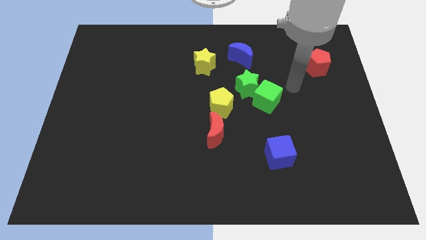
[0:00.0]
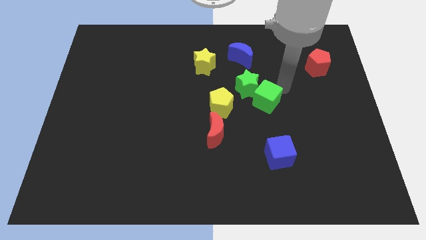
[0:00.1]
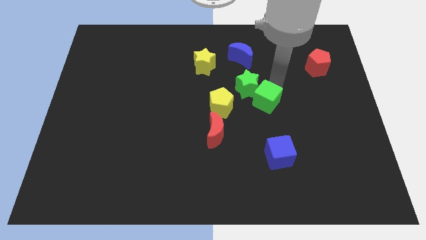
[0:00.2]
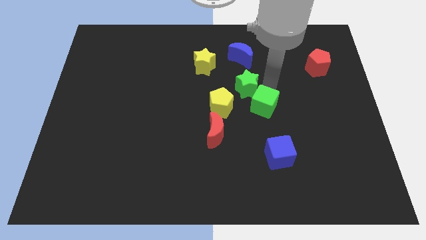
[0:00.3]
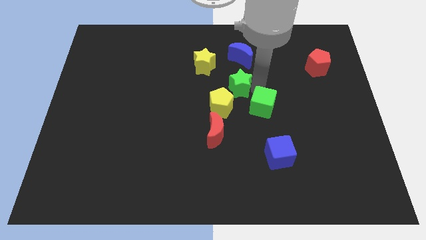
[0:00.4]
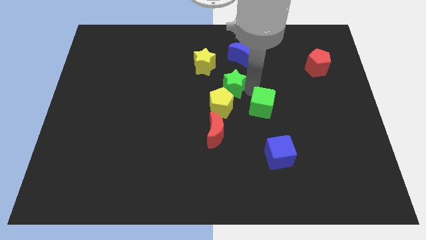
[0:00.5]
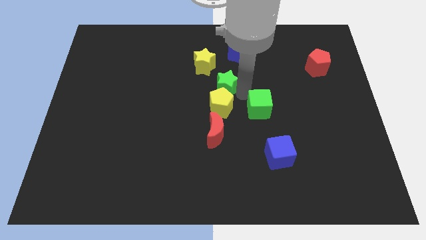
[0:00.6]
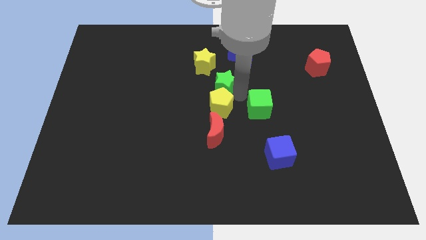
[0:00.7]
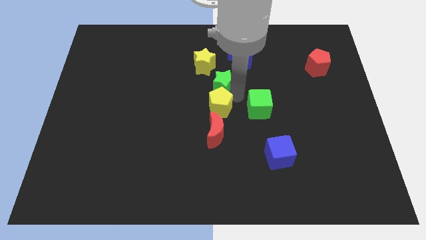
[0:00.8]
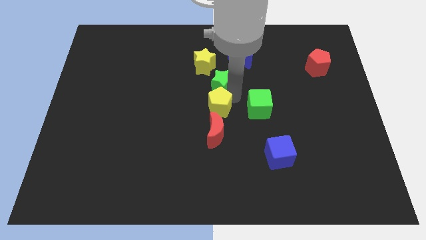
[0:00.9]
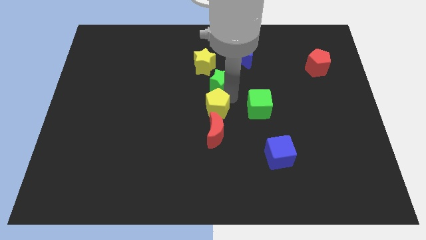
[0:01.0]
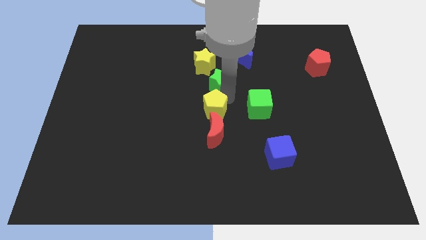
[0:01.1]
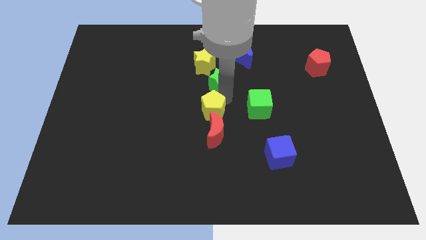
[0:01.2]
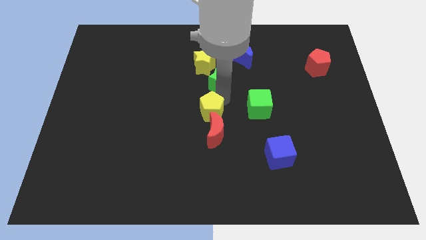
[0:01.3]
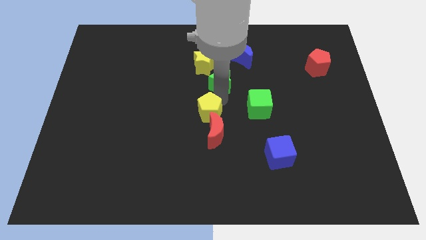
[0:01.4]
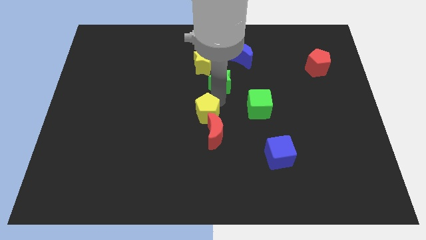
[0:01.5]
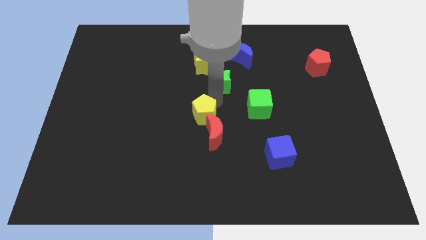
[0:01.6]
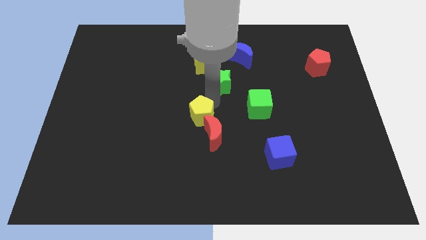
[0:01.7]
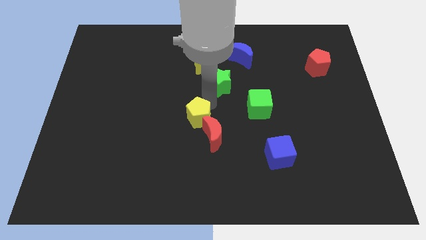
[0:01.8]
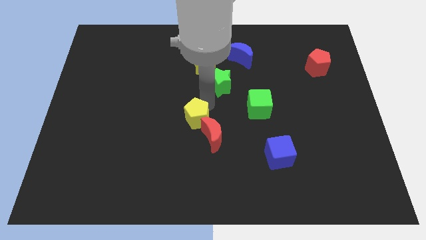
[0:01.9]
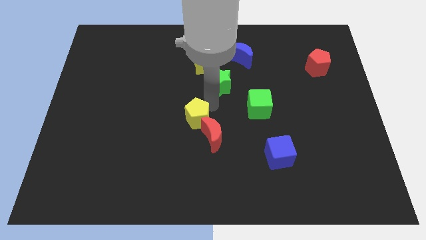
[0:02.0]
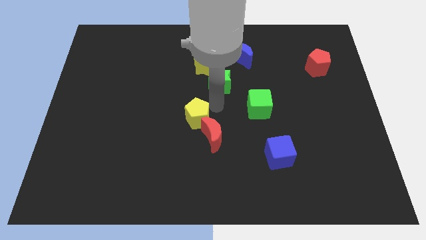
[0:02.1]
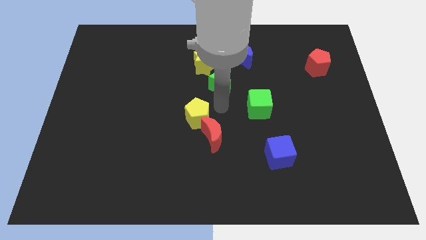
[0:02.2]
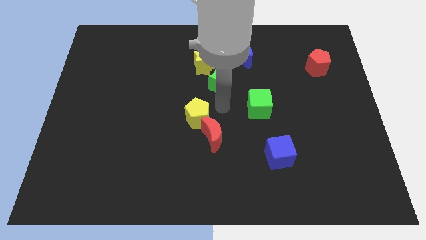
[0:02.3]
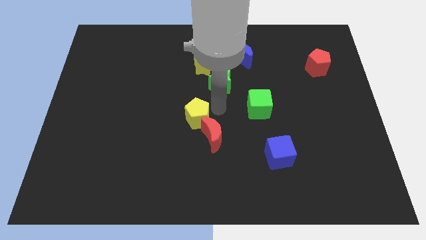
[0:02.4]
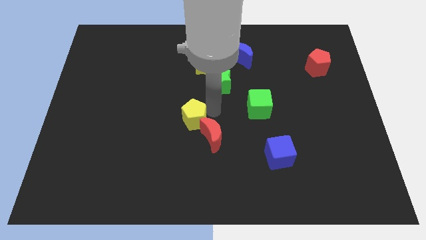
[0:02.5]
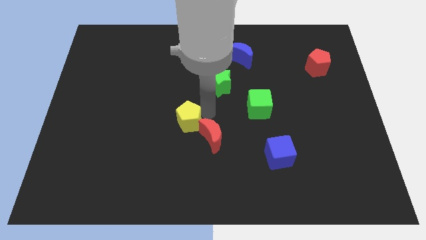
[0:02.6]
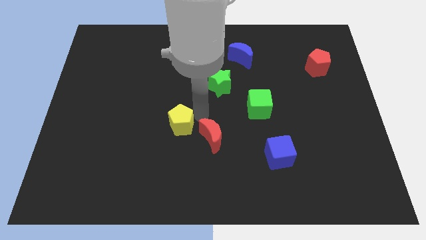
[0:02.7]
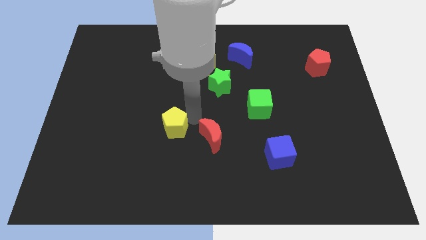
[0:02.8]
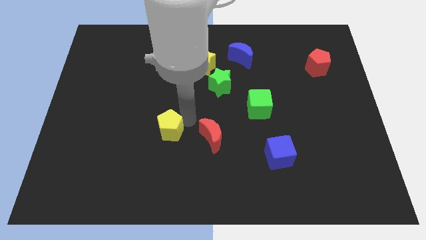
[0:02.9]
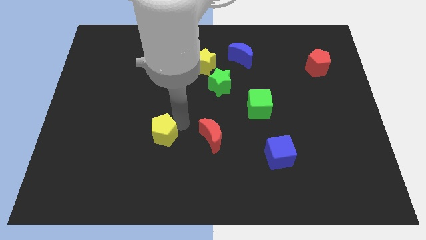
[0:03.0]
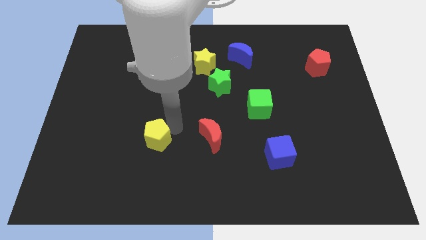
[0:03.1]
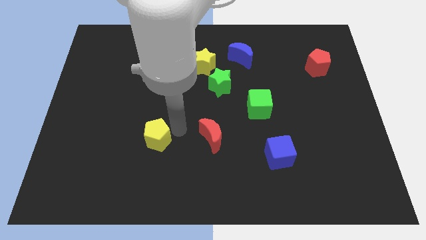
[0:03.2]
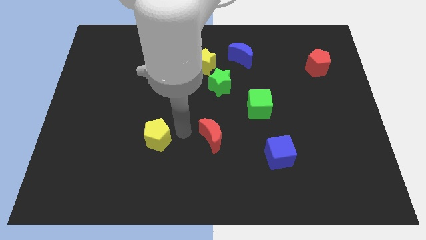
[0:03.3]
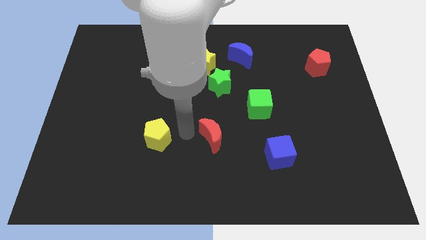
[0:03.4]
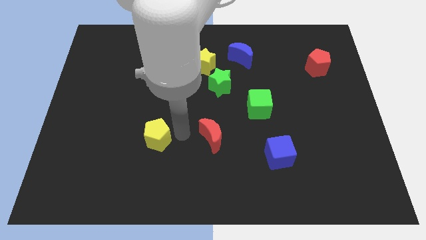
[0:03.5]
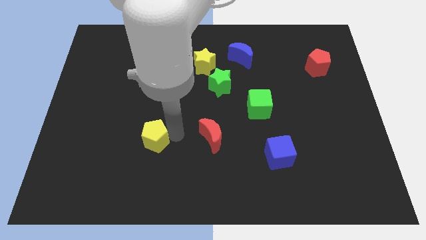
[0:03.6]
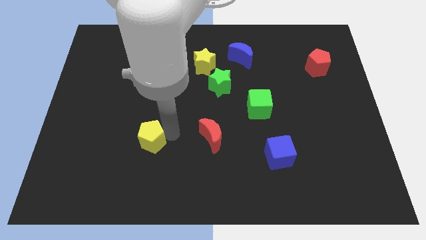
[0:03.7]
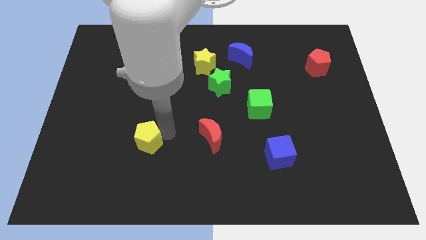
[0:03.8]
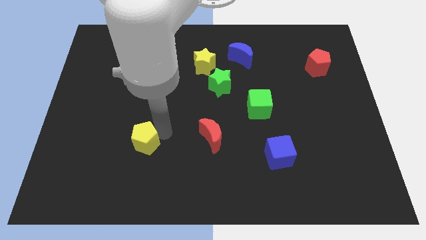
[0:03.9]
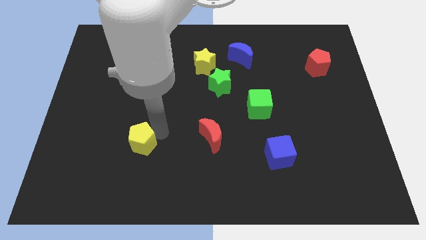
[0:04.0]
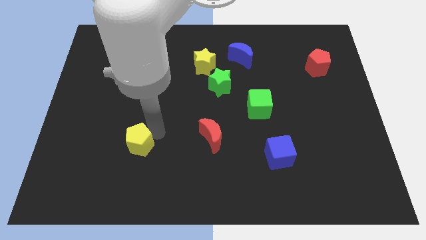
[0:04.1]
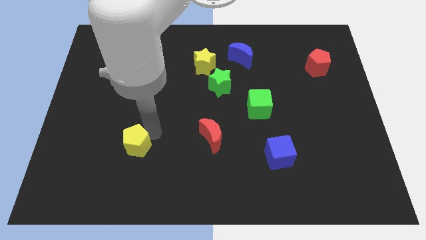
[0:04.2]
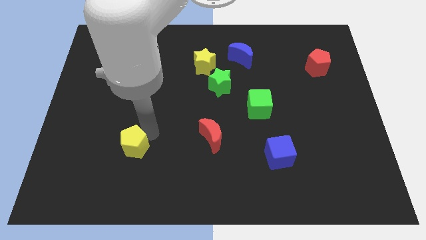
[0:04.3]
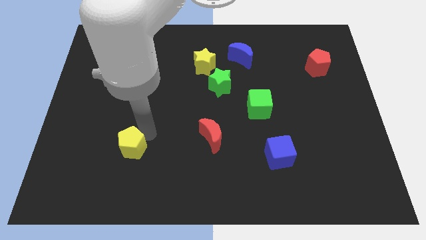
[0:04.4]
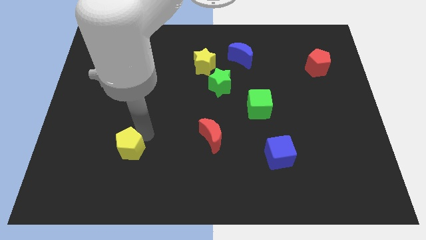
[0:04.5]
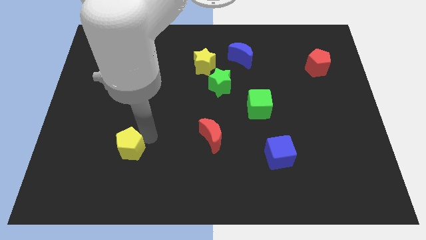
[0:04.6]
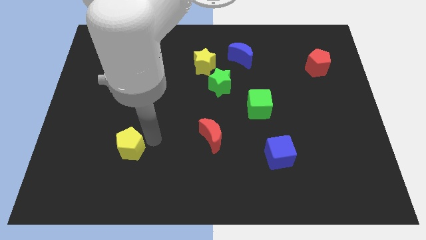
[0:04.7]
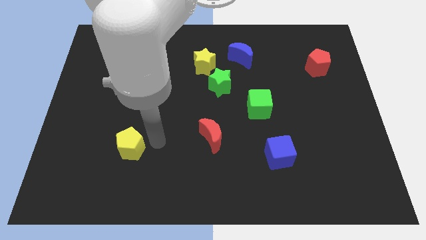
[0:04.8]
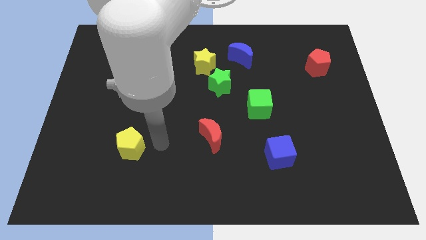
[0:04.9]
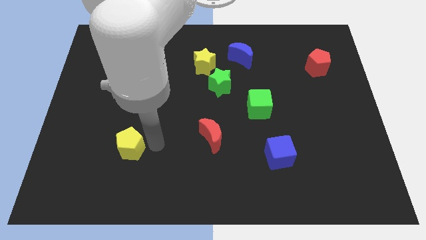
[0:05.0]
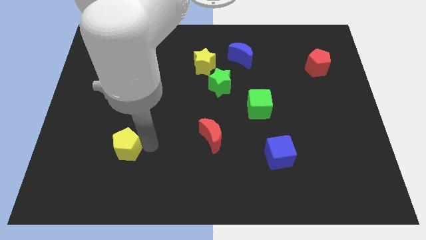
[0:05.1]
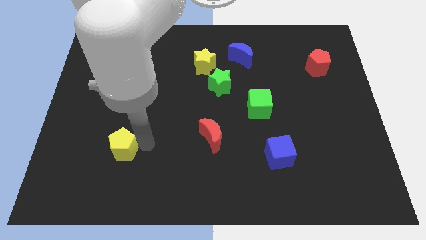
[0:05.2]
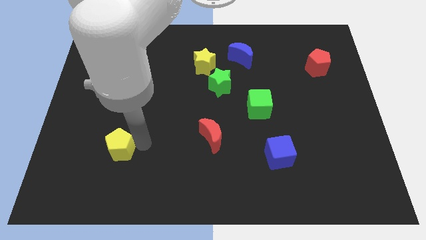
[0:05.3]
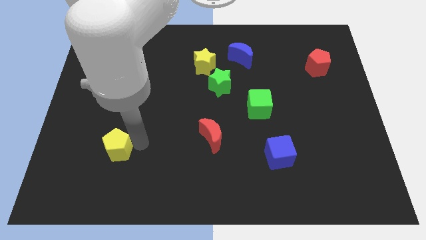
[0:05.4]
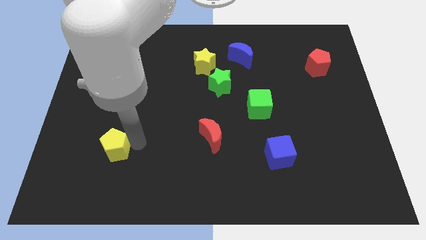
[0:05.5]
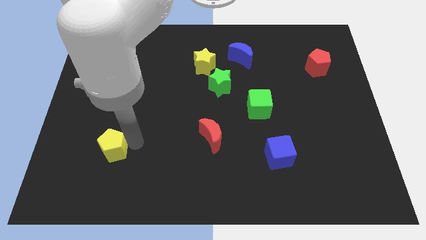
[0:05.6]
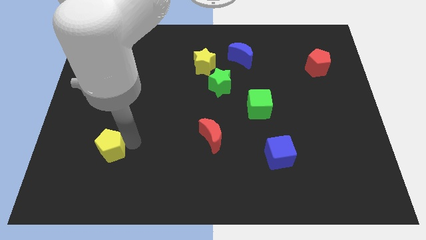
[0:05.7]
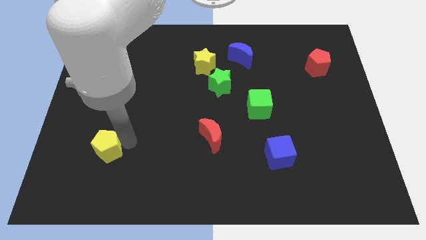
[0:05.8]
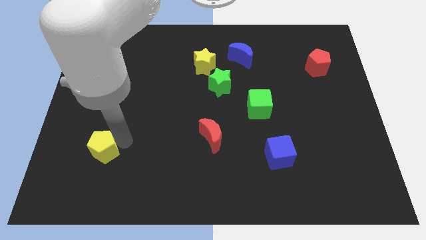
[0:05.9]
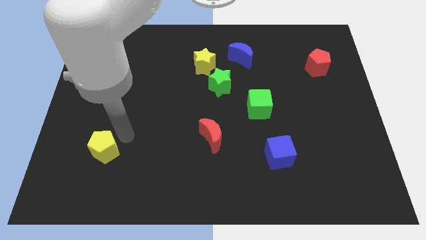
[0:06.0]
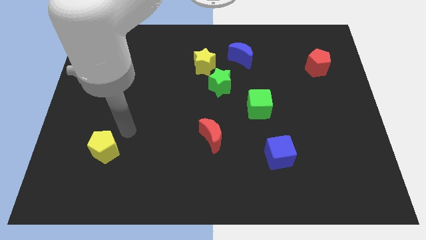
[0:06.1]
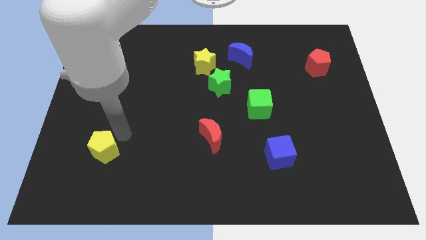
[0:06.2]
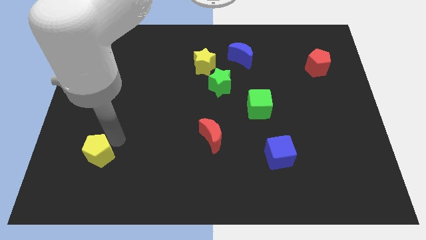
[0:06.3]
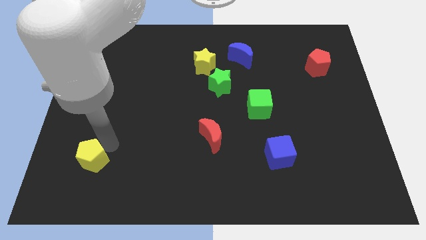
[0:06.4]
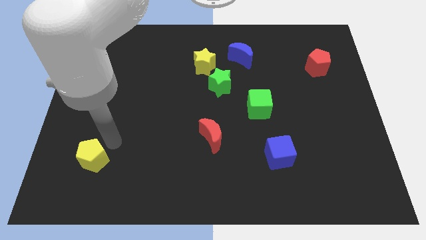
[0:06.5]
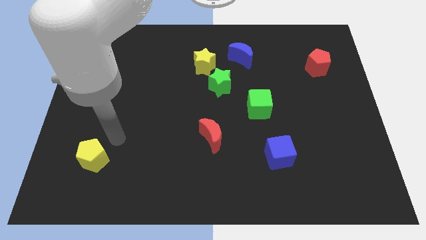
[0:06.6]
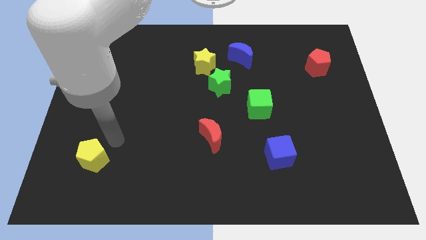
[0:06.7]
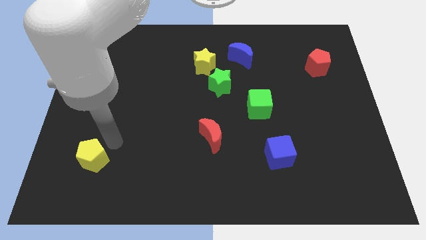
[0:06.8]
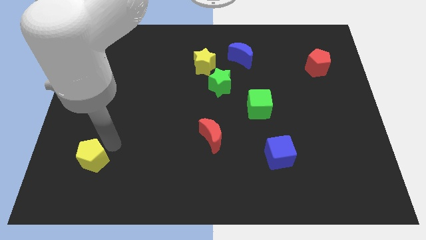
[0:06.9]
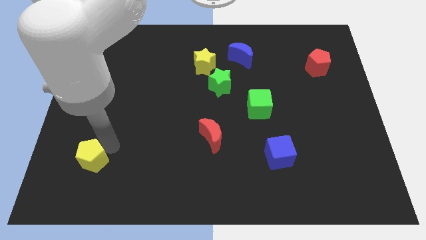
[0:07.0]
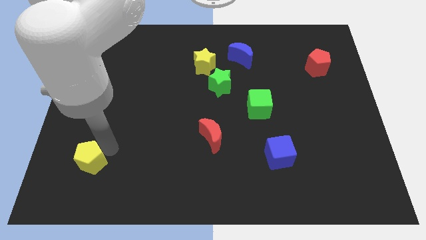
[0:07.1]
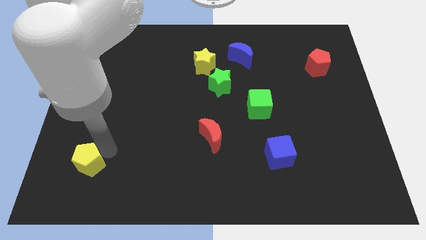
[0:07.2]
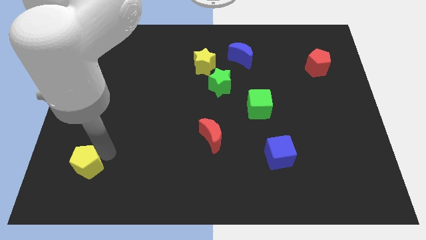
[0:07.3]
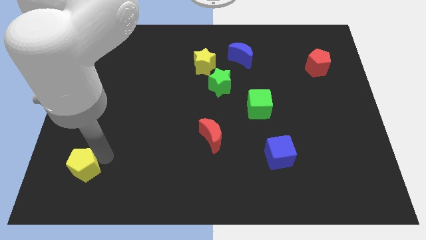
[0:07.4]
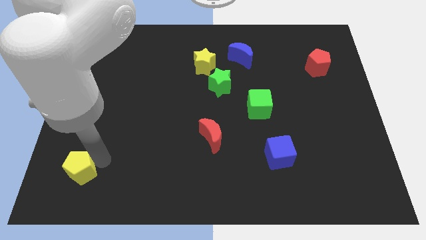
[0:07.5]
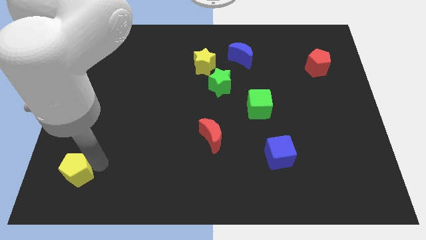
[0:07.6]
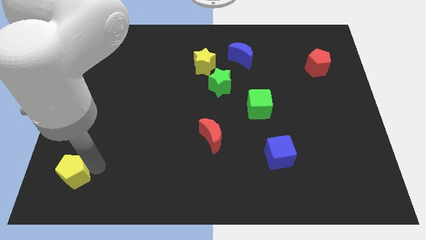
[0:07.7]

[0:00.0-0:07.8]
push the yellow pentagon to the bottom left corner
